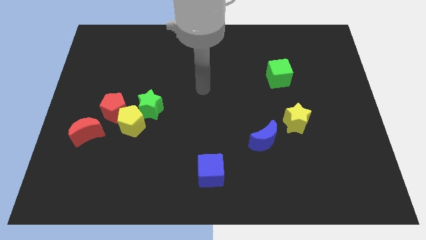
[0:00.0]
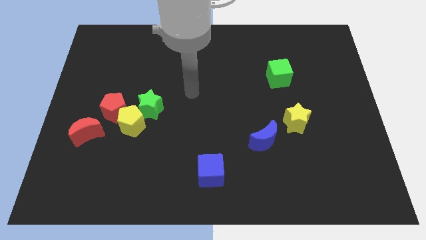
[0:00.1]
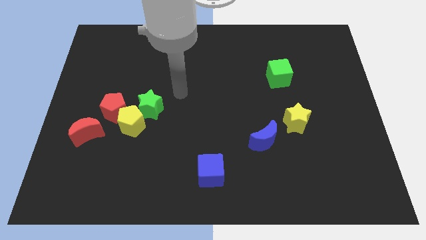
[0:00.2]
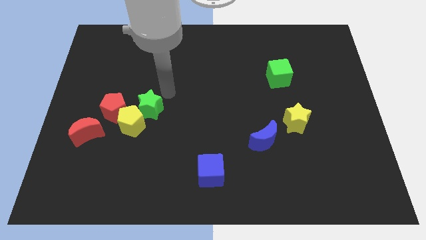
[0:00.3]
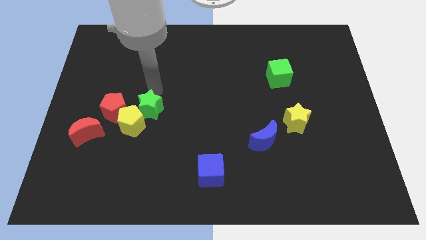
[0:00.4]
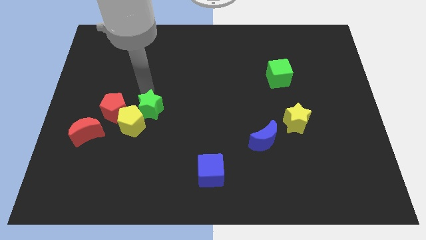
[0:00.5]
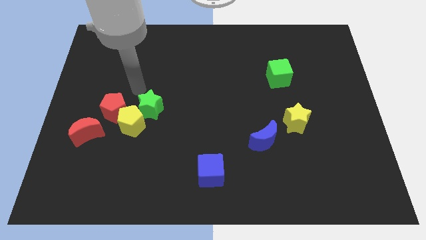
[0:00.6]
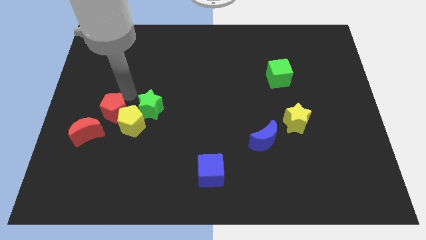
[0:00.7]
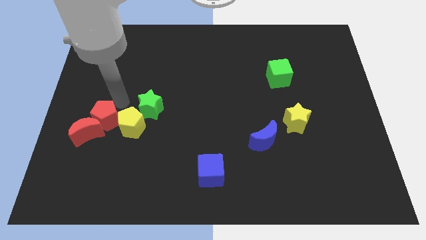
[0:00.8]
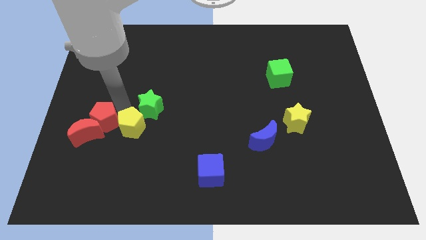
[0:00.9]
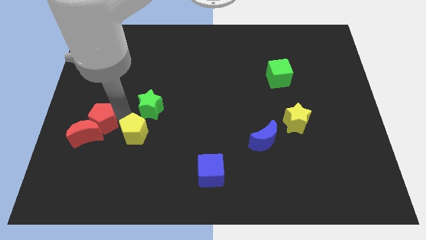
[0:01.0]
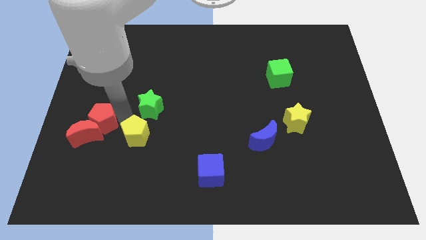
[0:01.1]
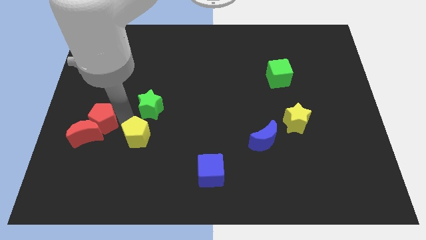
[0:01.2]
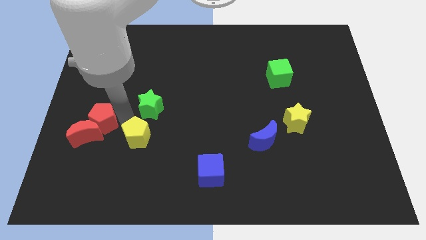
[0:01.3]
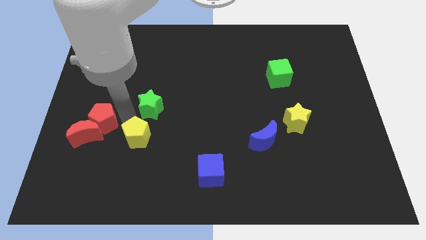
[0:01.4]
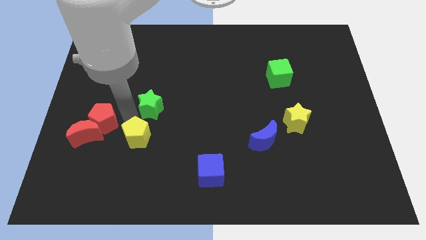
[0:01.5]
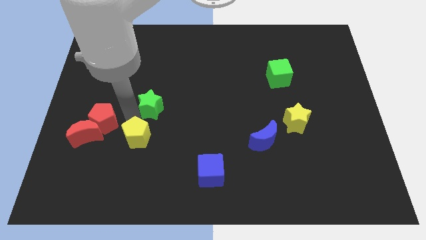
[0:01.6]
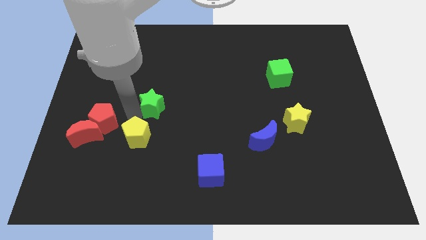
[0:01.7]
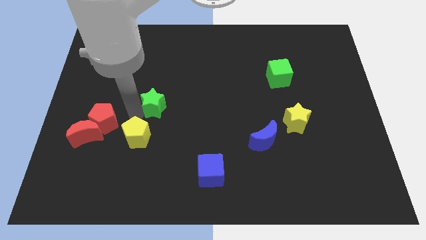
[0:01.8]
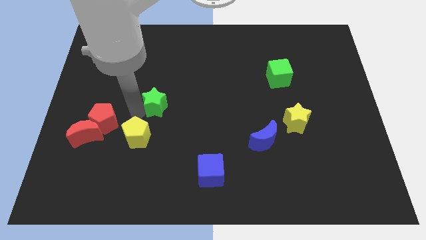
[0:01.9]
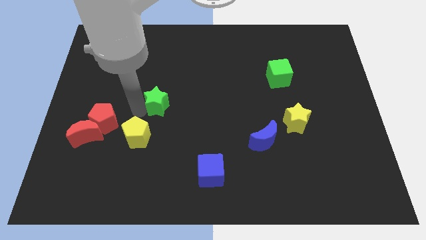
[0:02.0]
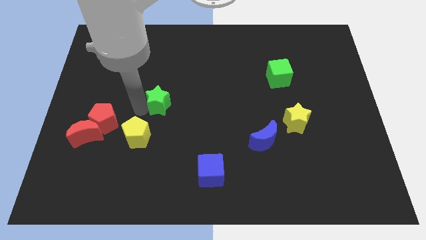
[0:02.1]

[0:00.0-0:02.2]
pull the green star apart from the yellow pentagon and red pentagon

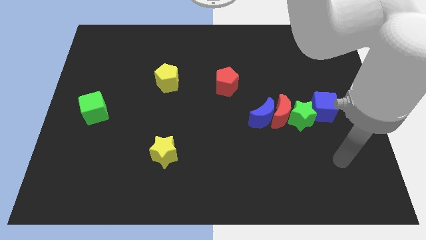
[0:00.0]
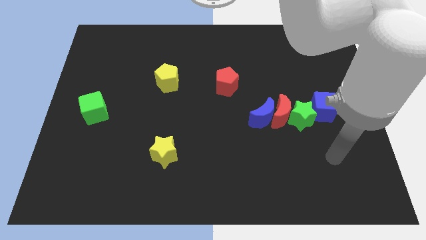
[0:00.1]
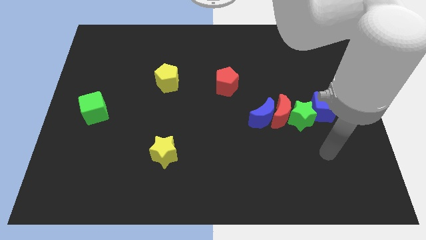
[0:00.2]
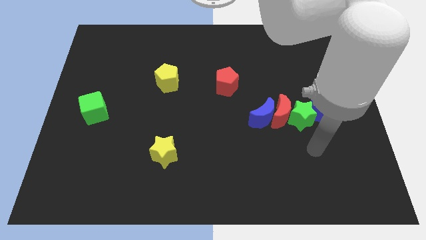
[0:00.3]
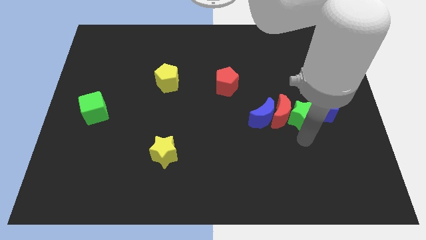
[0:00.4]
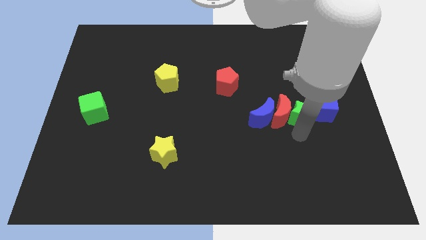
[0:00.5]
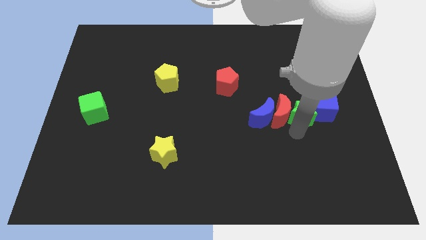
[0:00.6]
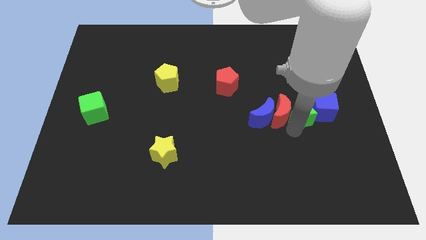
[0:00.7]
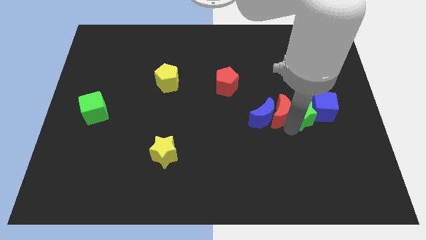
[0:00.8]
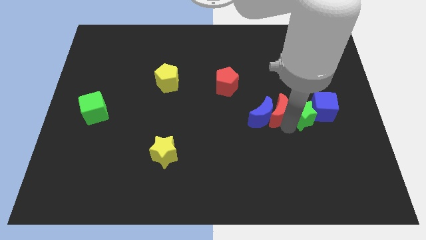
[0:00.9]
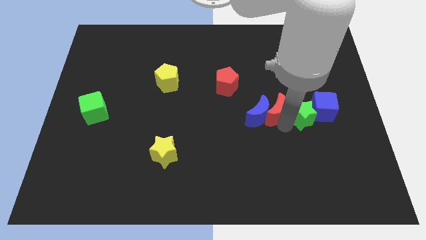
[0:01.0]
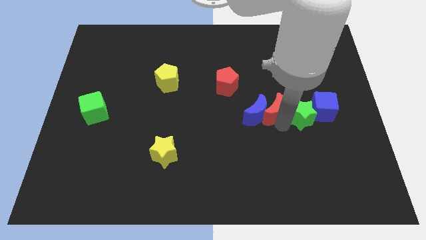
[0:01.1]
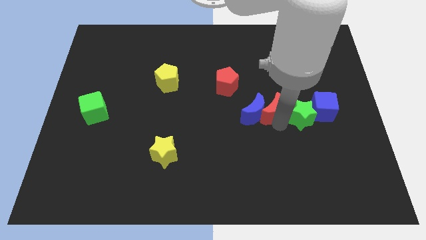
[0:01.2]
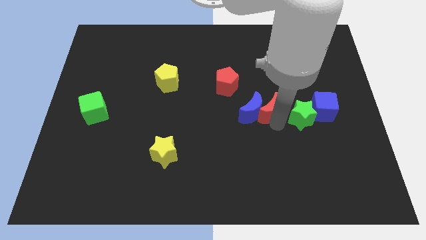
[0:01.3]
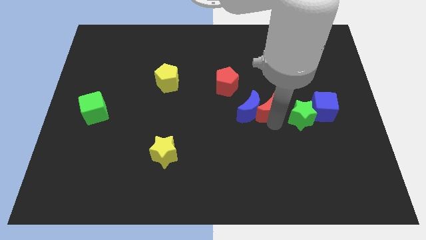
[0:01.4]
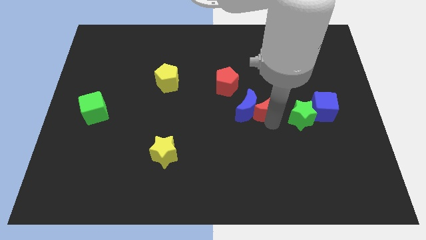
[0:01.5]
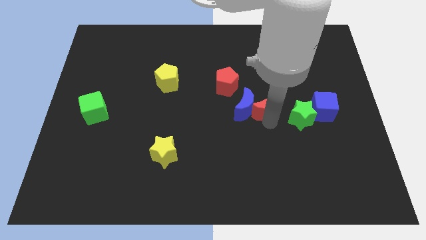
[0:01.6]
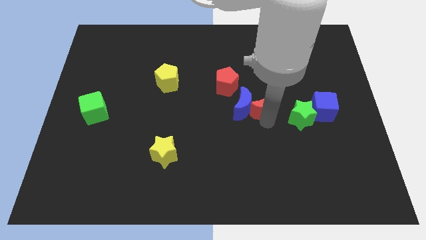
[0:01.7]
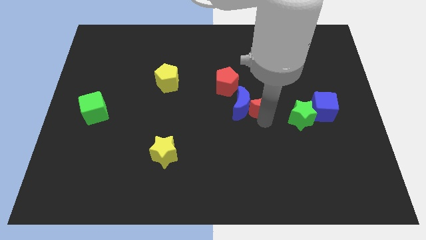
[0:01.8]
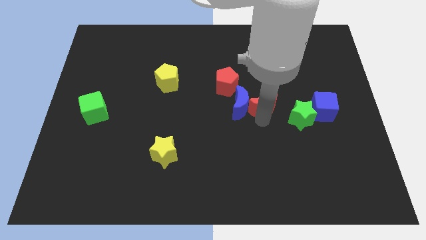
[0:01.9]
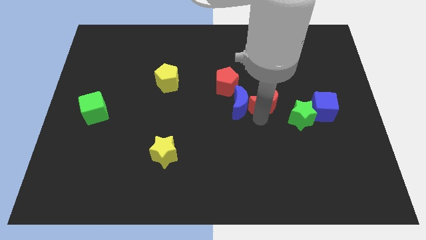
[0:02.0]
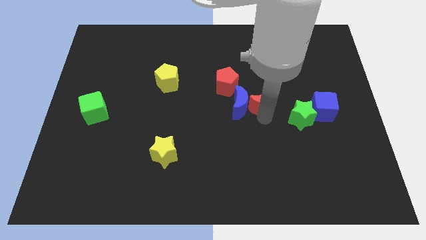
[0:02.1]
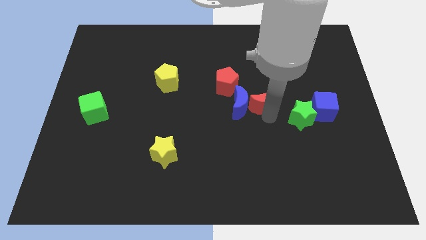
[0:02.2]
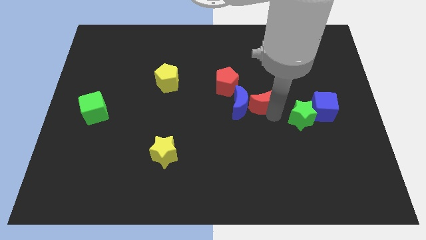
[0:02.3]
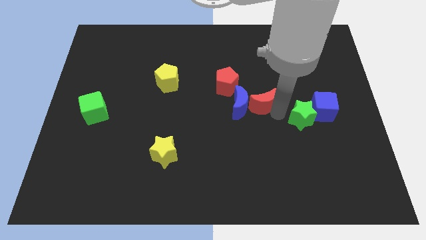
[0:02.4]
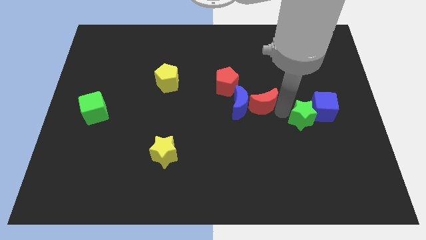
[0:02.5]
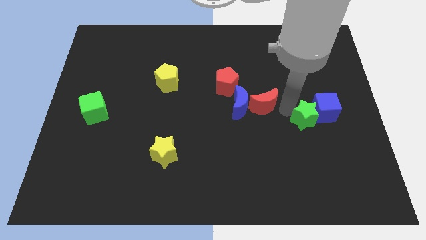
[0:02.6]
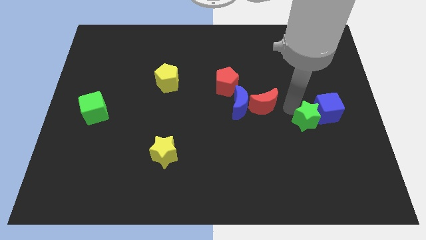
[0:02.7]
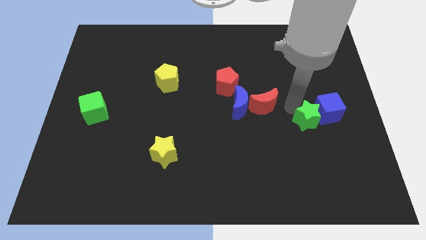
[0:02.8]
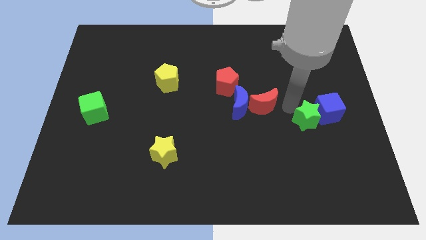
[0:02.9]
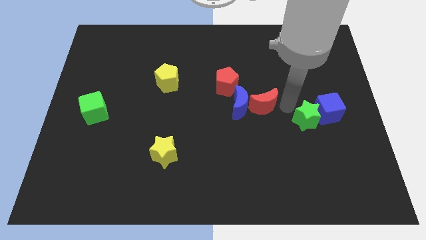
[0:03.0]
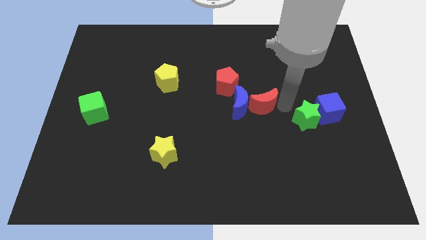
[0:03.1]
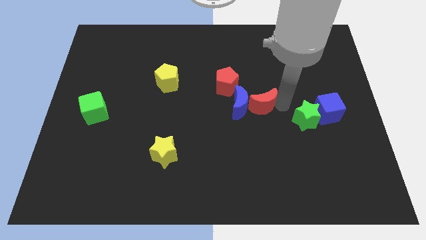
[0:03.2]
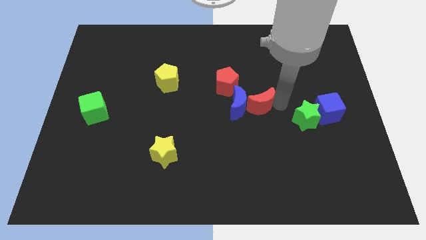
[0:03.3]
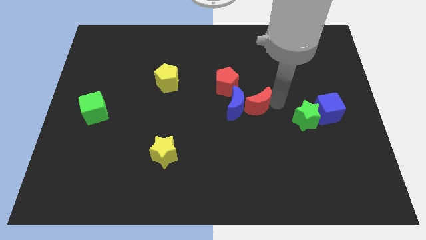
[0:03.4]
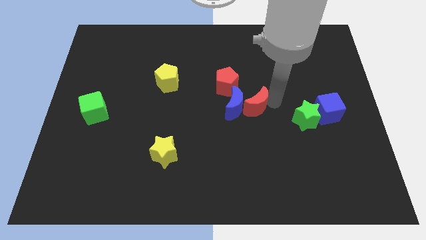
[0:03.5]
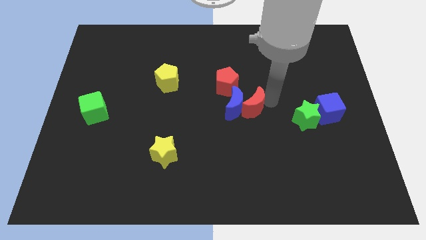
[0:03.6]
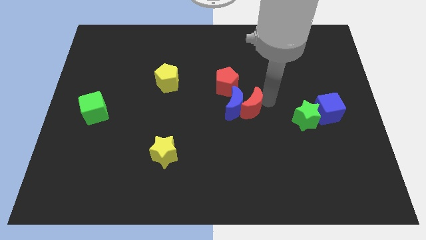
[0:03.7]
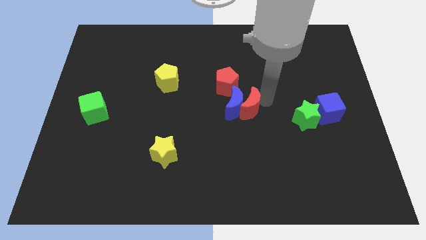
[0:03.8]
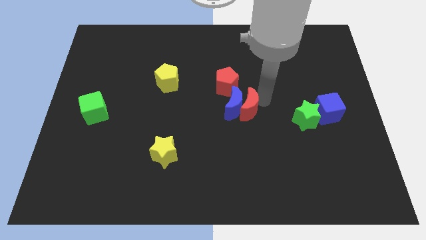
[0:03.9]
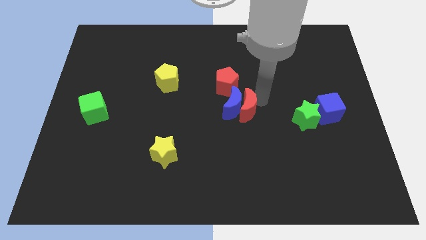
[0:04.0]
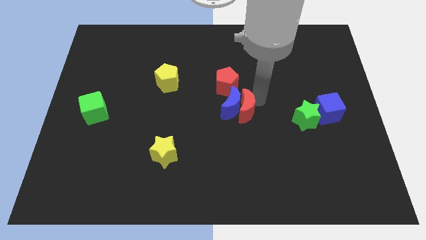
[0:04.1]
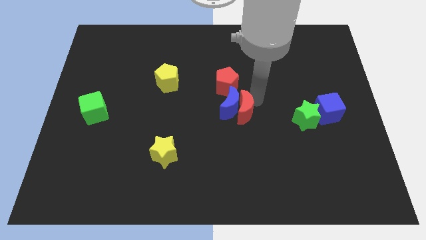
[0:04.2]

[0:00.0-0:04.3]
move the red moon away from the green star, blue moon, and blue cube

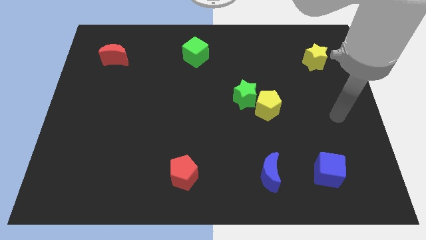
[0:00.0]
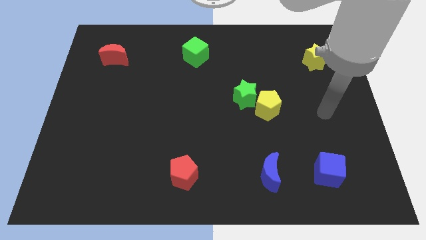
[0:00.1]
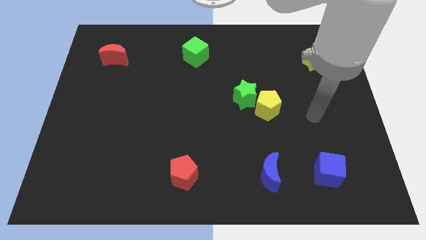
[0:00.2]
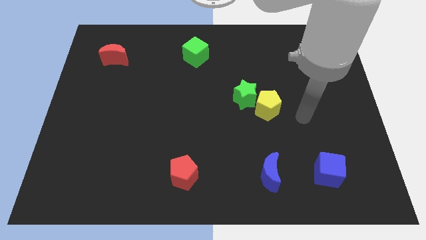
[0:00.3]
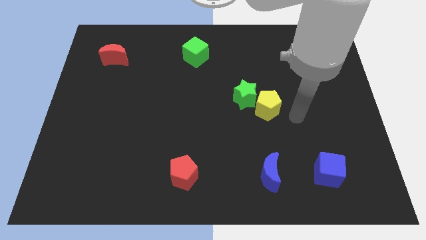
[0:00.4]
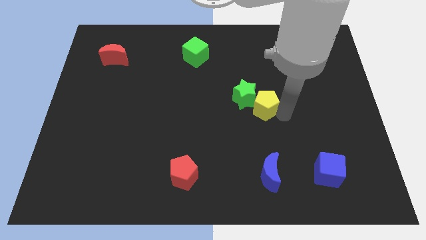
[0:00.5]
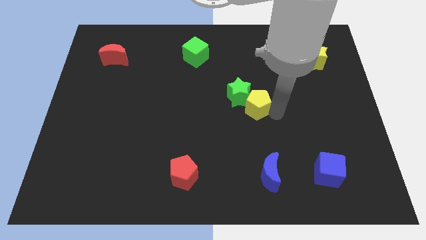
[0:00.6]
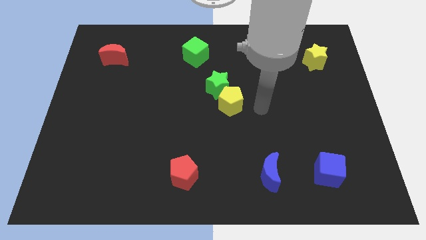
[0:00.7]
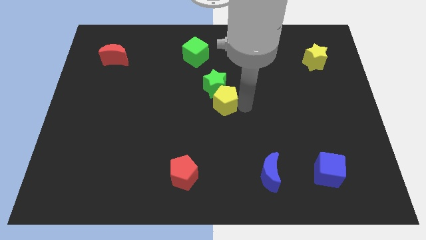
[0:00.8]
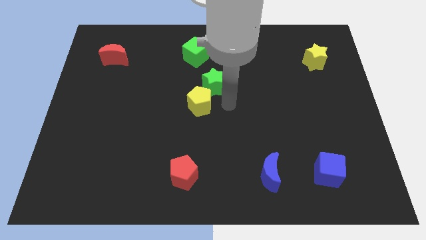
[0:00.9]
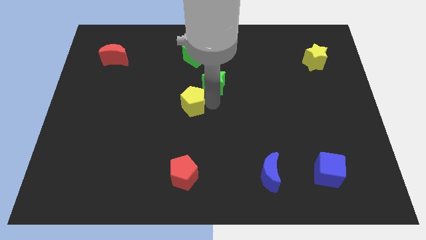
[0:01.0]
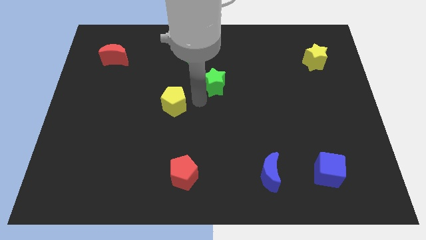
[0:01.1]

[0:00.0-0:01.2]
separate the green star from the yellow pentagon

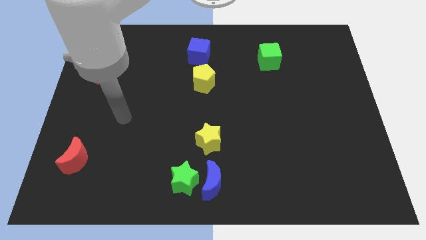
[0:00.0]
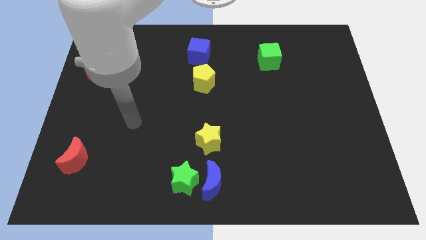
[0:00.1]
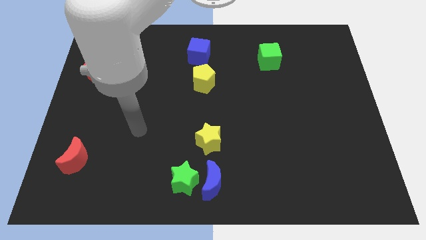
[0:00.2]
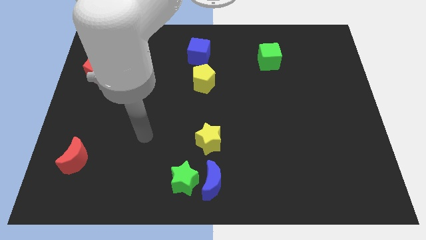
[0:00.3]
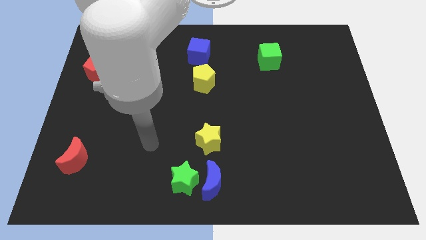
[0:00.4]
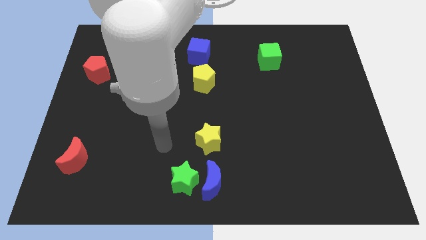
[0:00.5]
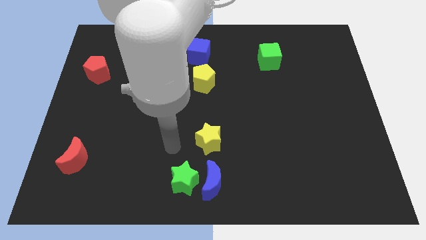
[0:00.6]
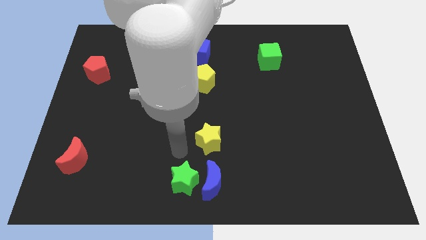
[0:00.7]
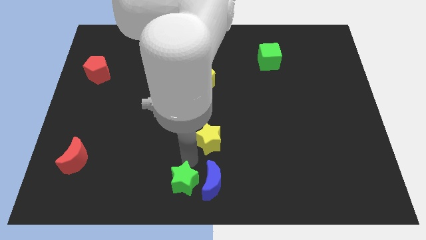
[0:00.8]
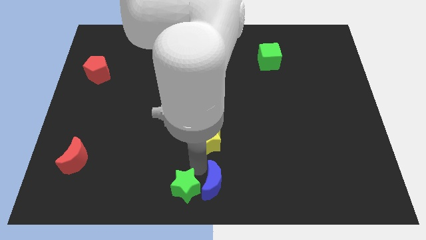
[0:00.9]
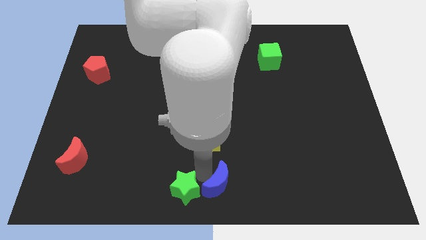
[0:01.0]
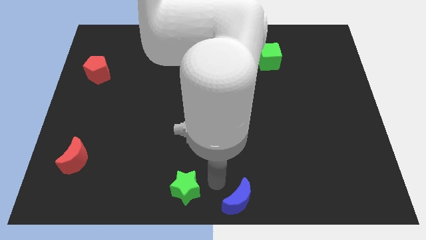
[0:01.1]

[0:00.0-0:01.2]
pull the green star apart from the blue moon

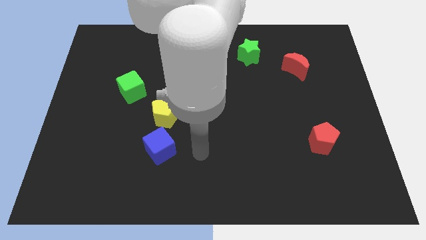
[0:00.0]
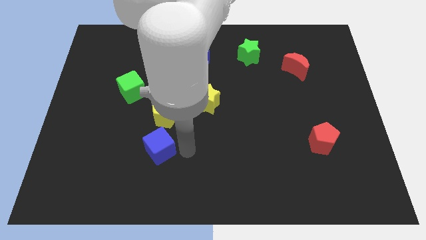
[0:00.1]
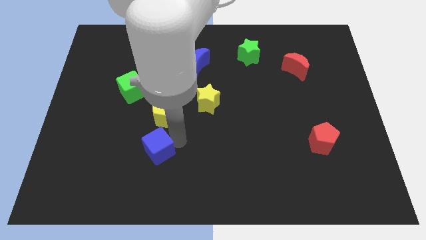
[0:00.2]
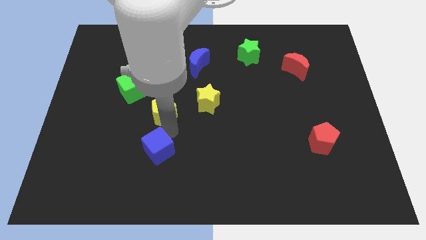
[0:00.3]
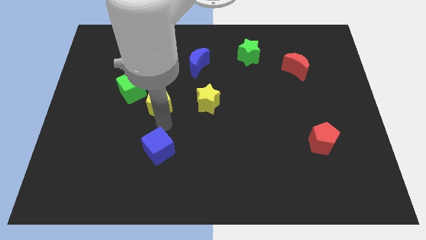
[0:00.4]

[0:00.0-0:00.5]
pull the blue cube apart from the yellow pentagon
